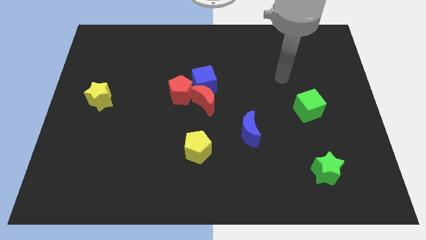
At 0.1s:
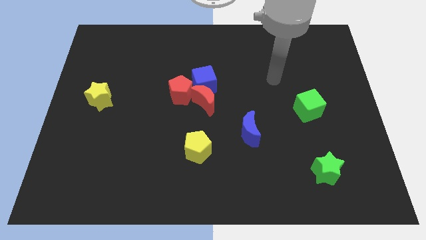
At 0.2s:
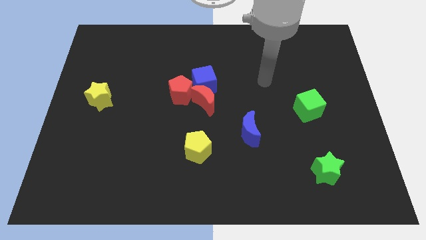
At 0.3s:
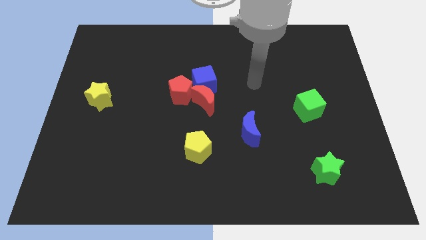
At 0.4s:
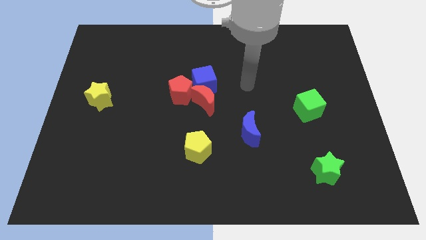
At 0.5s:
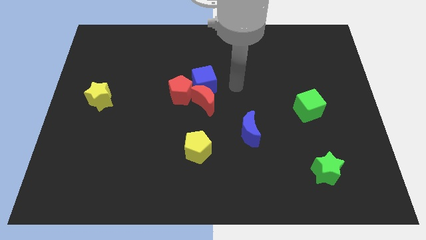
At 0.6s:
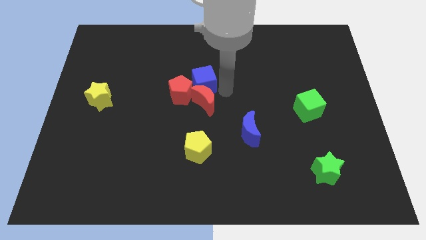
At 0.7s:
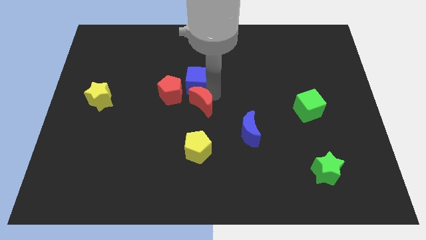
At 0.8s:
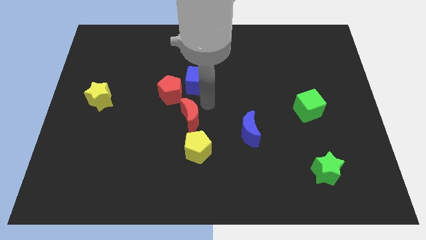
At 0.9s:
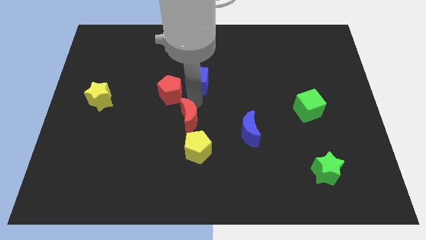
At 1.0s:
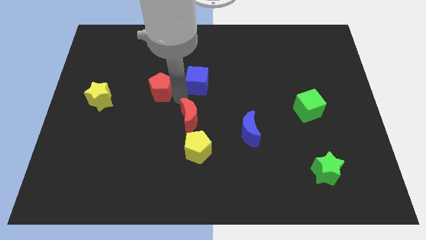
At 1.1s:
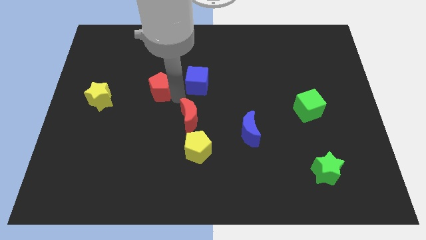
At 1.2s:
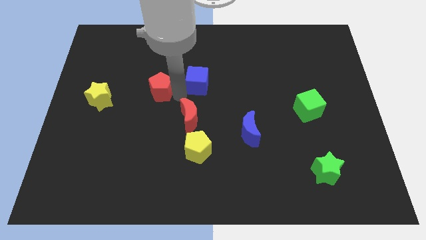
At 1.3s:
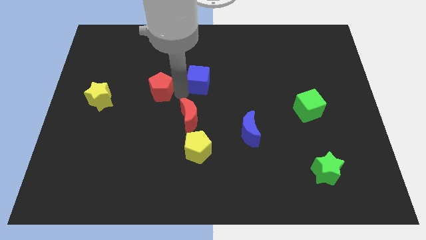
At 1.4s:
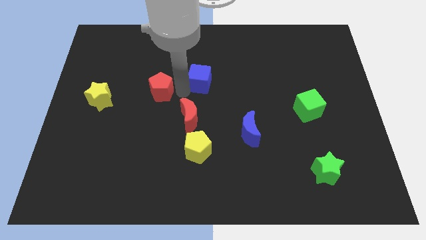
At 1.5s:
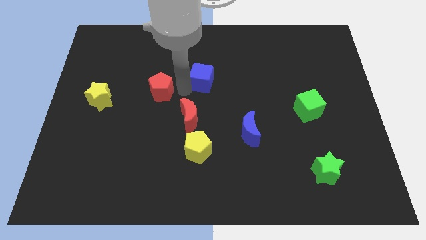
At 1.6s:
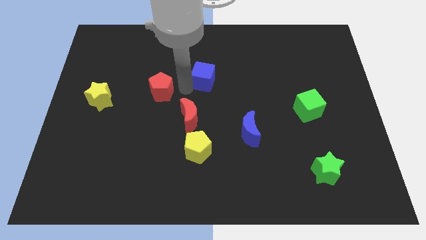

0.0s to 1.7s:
separate the blue cube from the red moon and red pentagon

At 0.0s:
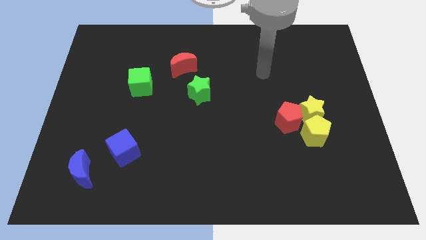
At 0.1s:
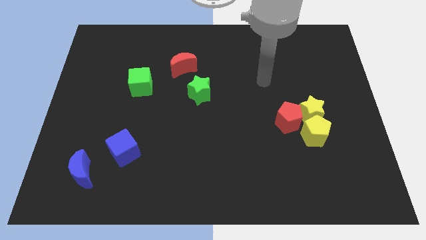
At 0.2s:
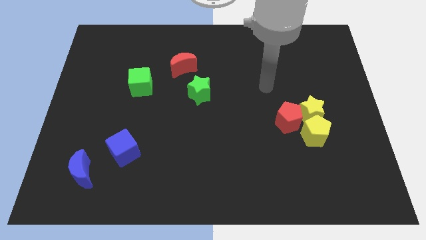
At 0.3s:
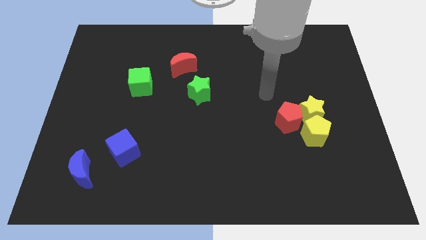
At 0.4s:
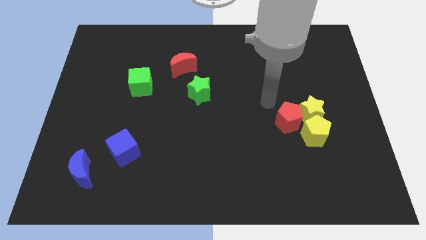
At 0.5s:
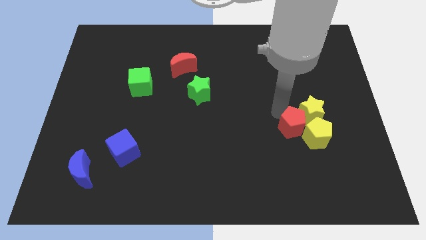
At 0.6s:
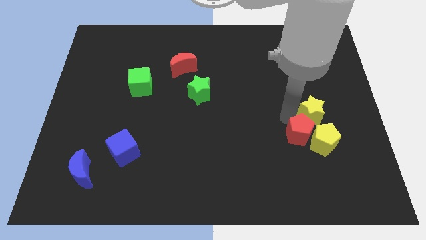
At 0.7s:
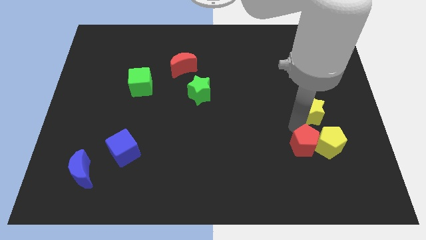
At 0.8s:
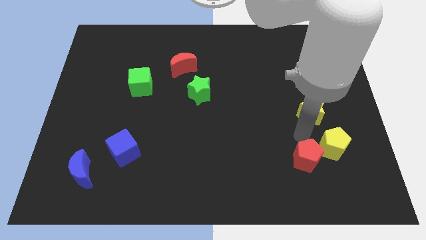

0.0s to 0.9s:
pull the yellow star apart from the red pentagon and yellow pentagon

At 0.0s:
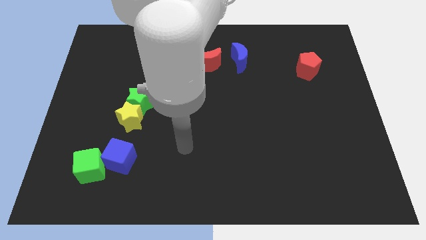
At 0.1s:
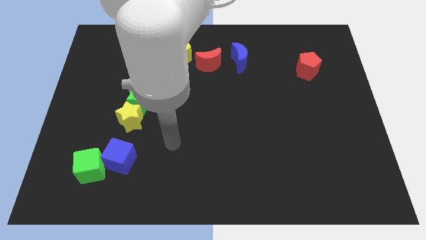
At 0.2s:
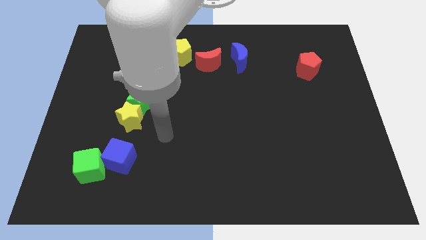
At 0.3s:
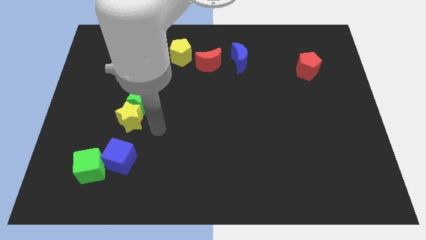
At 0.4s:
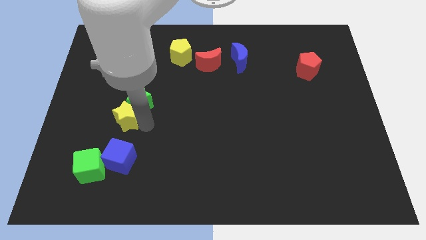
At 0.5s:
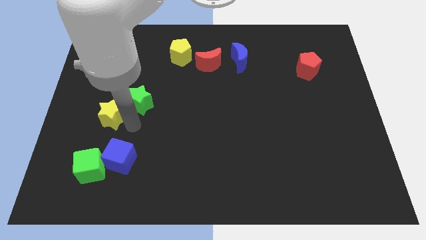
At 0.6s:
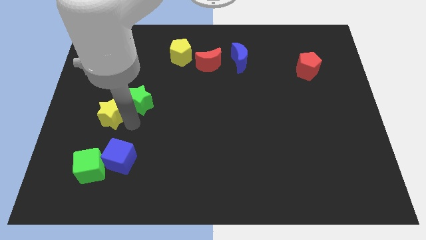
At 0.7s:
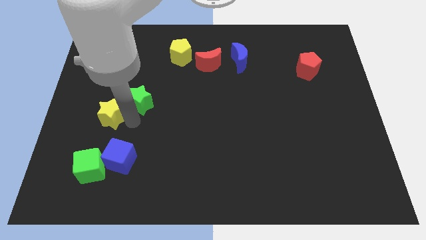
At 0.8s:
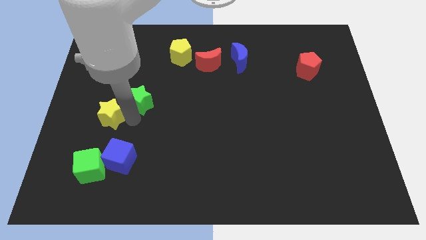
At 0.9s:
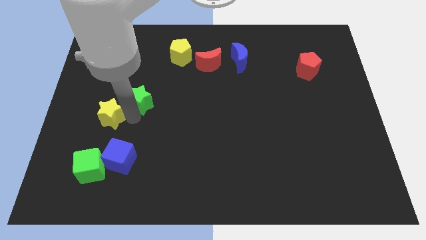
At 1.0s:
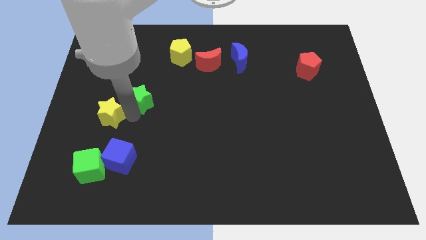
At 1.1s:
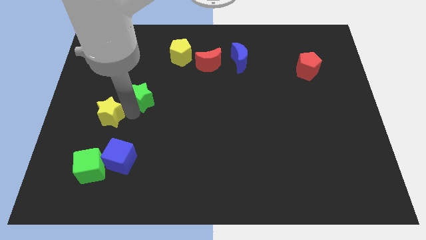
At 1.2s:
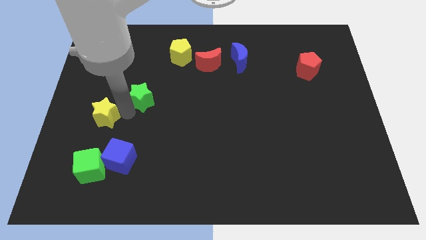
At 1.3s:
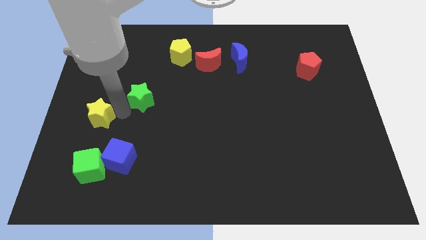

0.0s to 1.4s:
separate the green star from the yellow star

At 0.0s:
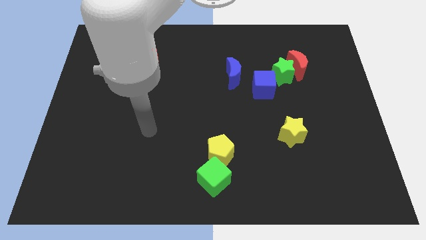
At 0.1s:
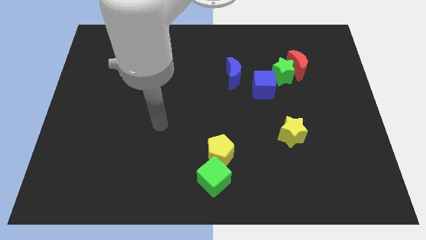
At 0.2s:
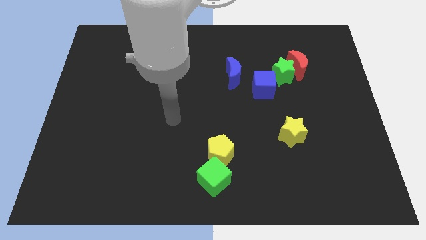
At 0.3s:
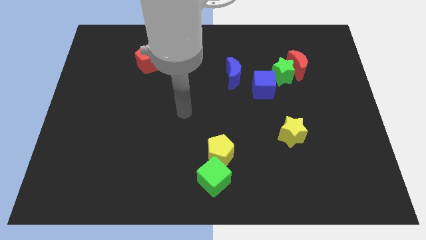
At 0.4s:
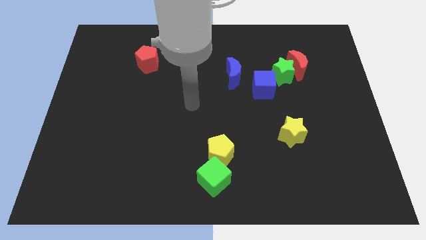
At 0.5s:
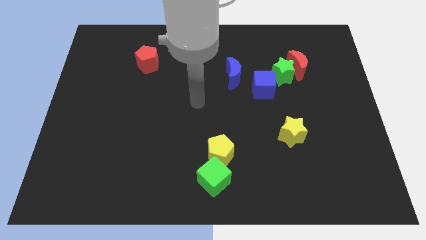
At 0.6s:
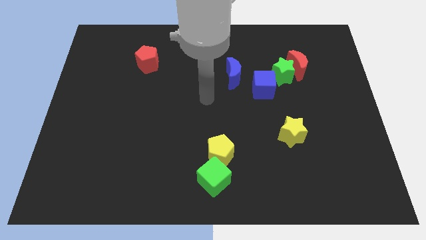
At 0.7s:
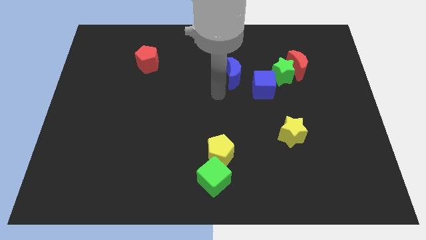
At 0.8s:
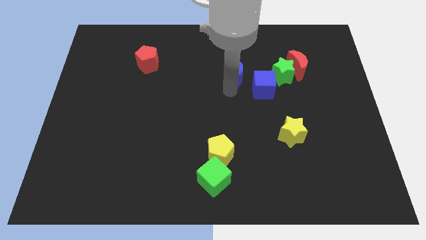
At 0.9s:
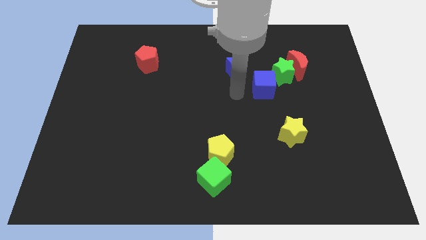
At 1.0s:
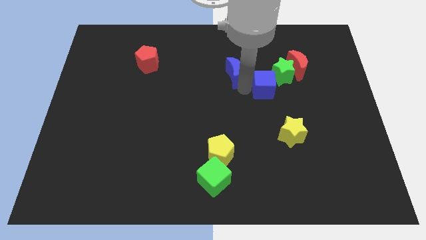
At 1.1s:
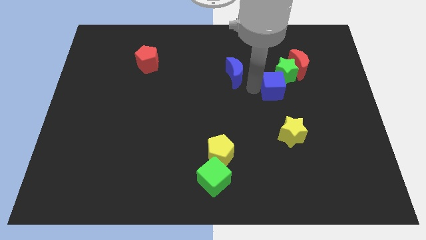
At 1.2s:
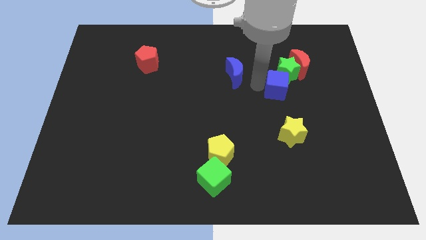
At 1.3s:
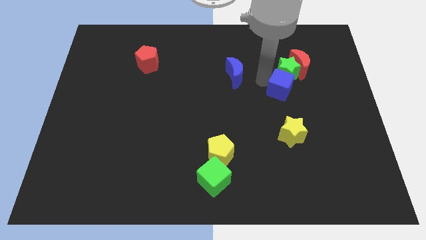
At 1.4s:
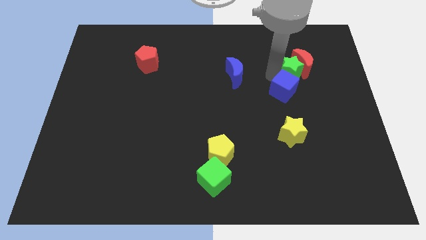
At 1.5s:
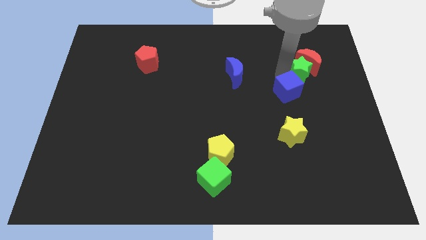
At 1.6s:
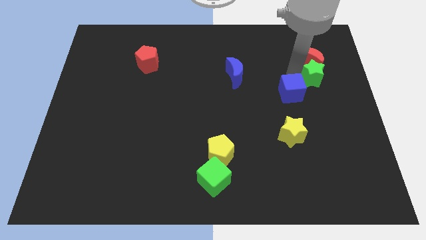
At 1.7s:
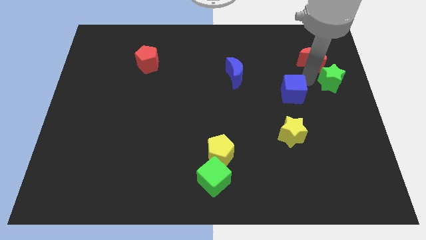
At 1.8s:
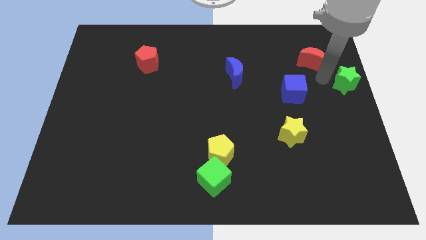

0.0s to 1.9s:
move the red moon away from the green star

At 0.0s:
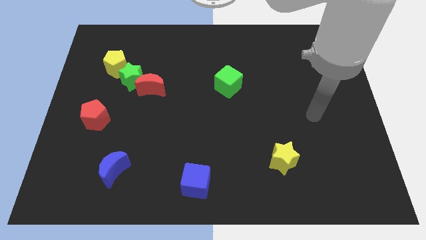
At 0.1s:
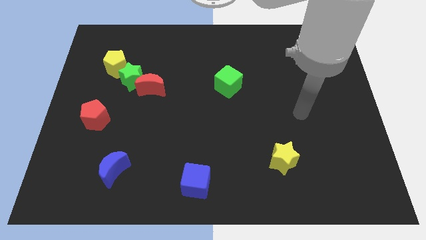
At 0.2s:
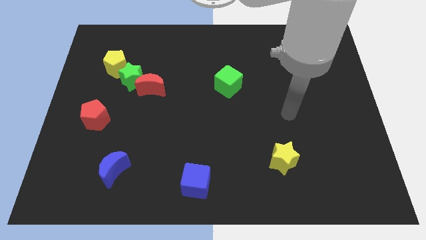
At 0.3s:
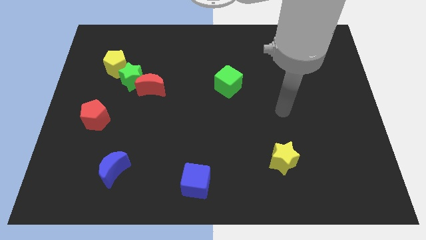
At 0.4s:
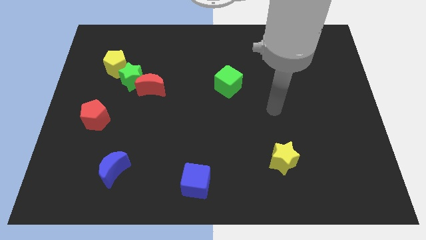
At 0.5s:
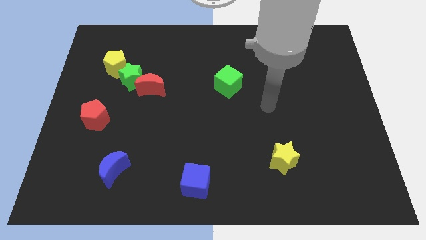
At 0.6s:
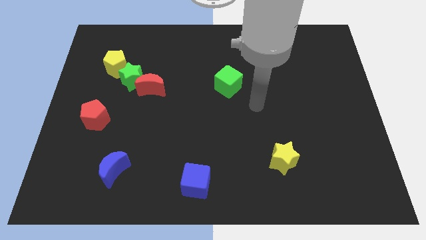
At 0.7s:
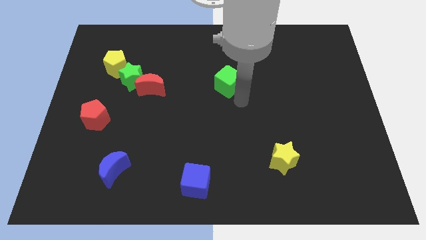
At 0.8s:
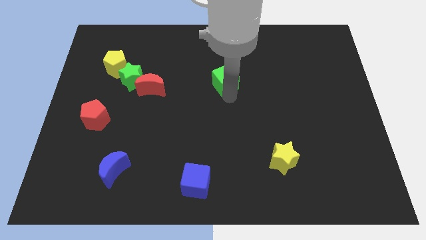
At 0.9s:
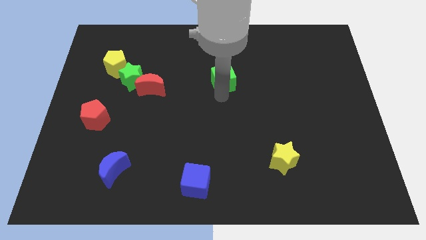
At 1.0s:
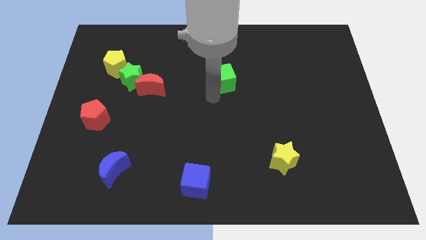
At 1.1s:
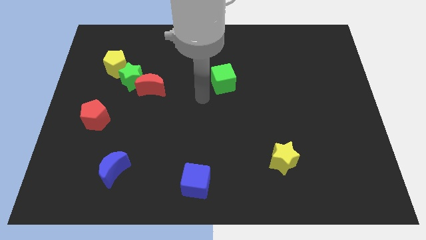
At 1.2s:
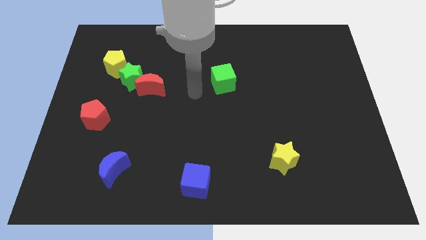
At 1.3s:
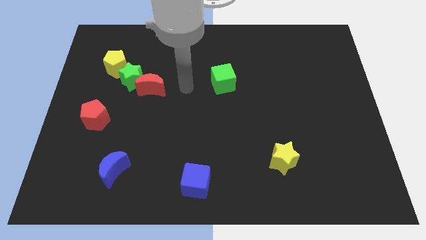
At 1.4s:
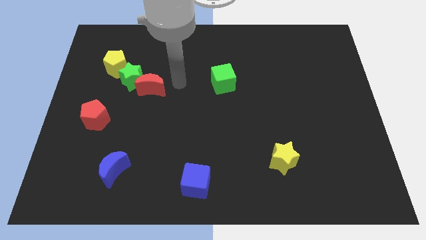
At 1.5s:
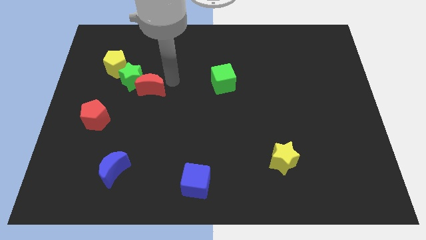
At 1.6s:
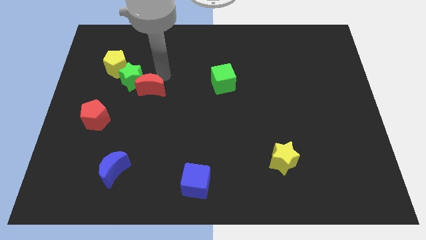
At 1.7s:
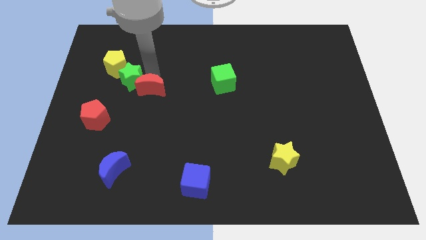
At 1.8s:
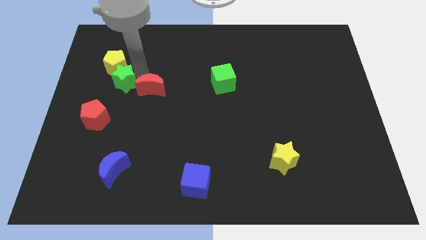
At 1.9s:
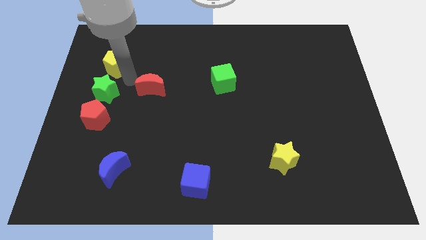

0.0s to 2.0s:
pull the red moon apart from the green star

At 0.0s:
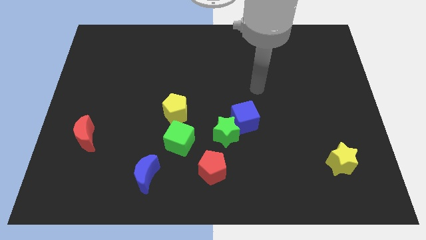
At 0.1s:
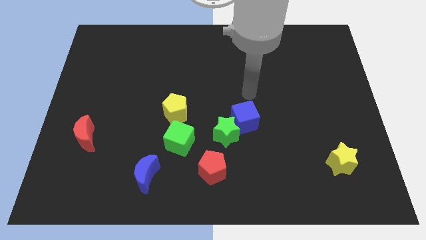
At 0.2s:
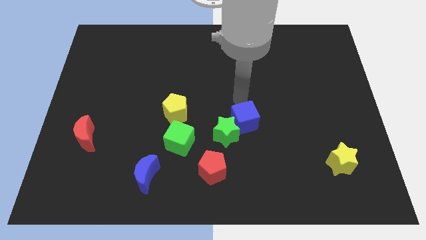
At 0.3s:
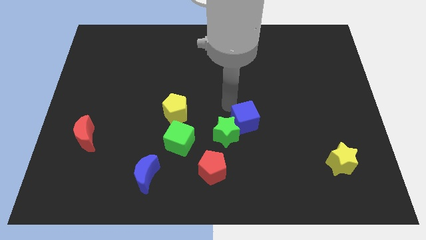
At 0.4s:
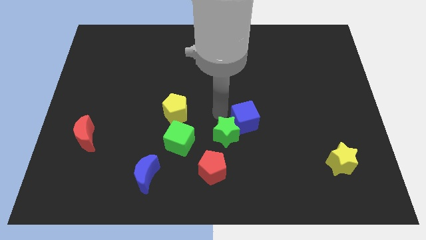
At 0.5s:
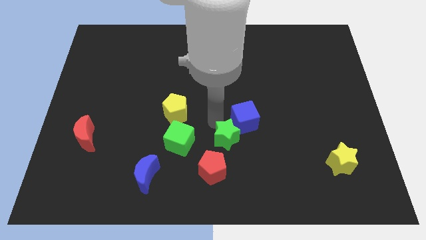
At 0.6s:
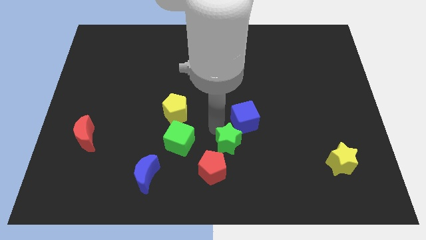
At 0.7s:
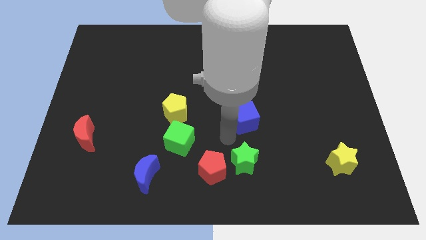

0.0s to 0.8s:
move the blue cube away from the green star

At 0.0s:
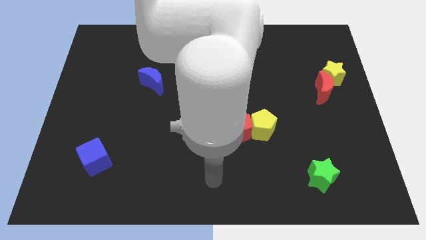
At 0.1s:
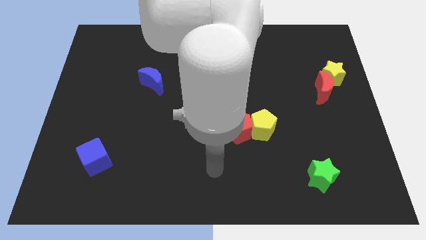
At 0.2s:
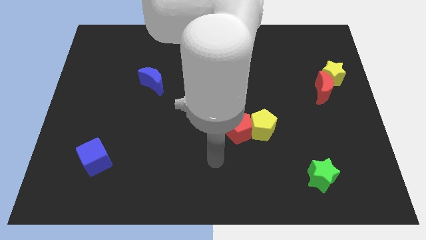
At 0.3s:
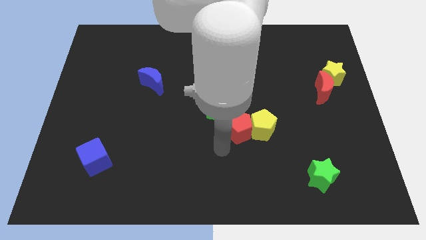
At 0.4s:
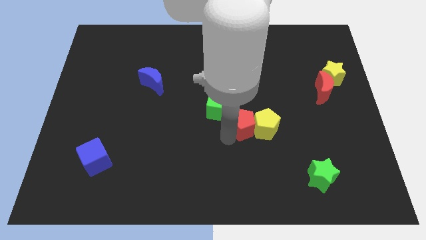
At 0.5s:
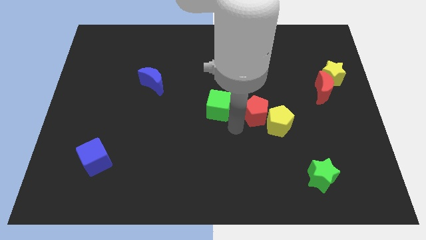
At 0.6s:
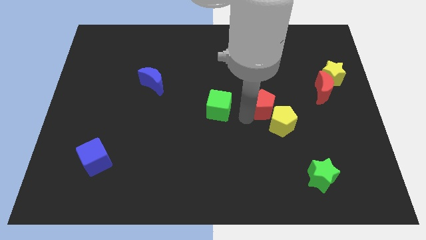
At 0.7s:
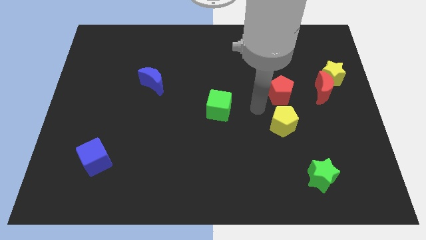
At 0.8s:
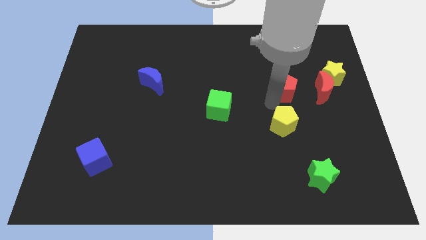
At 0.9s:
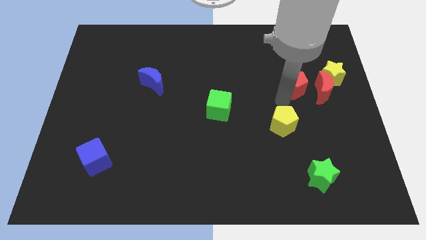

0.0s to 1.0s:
move the yellow pentagon away from the red pentagon
